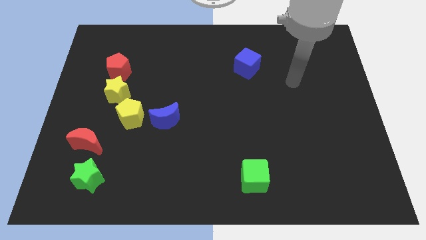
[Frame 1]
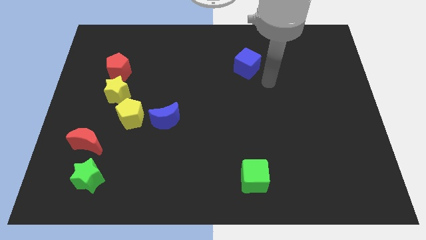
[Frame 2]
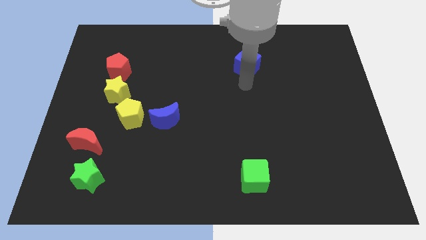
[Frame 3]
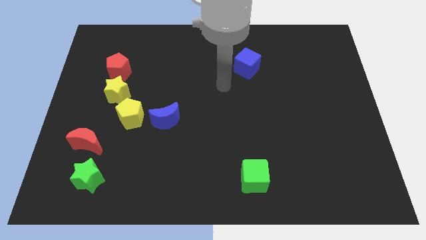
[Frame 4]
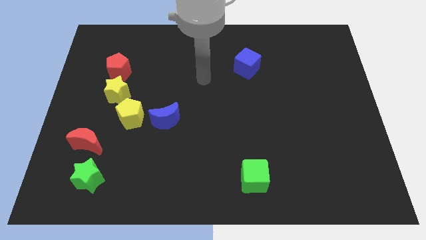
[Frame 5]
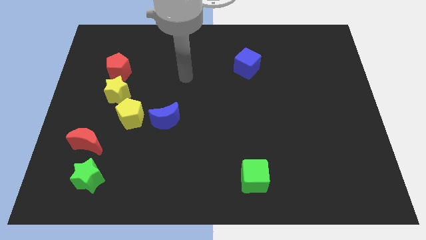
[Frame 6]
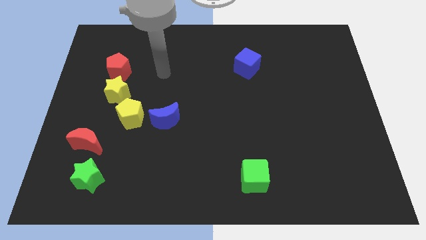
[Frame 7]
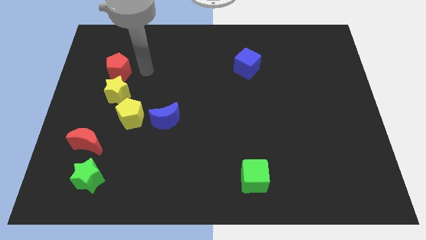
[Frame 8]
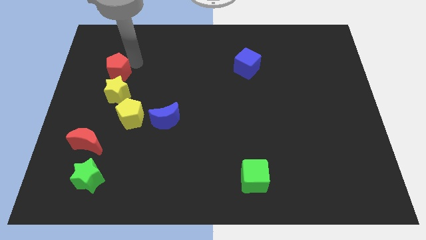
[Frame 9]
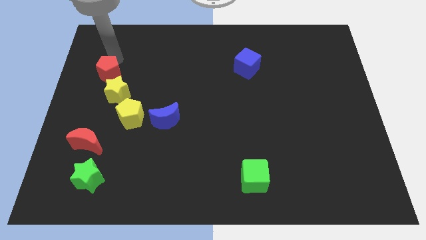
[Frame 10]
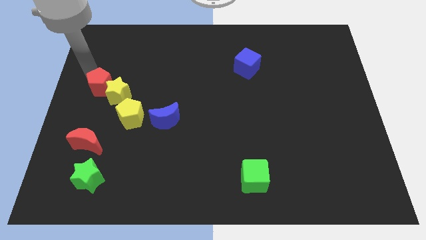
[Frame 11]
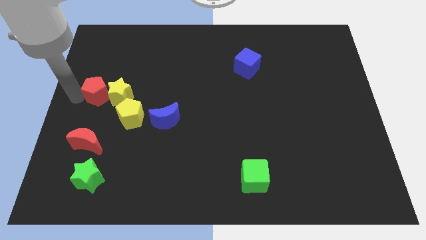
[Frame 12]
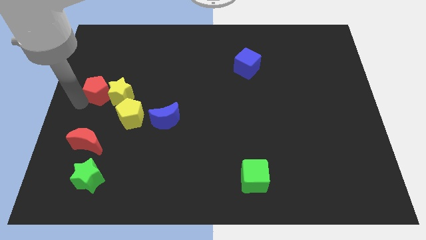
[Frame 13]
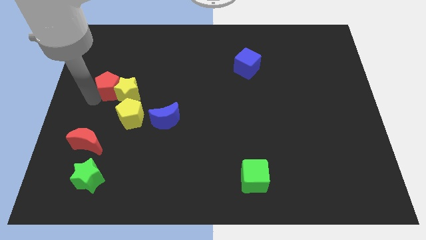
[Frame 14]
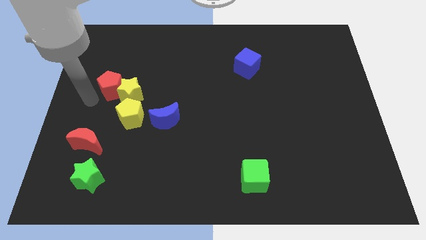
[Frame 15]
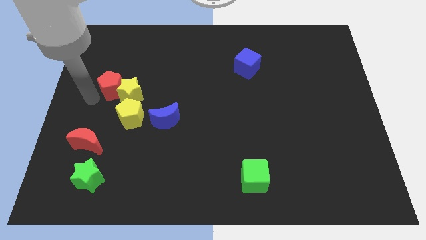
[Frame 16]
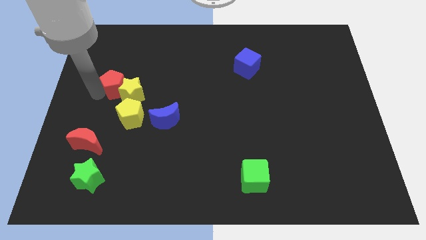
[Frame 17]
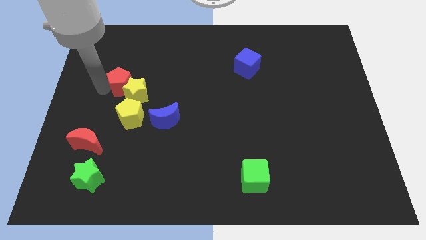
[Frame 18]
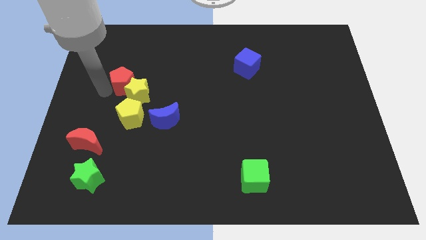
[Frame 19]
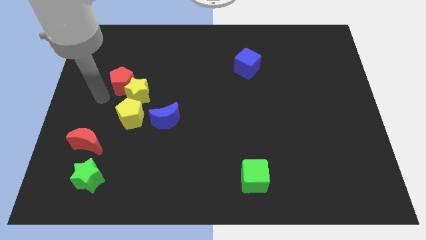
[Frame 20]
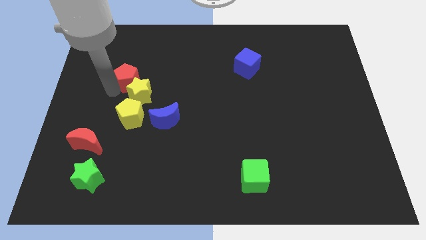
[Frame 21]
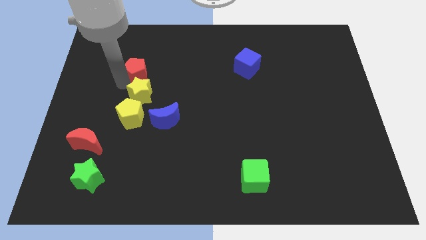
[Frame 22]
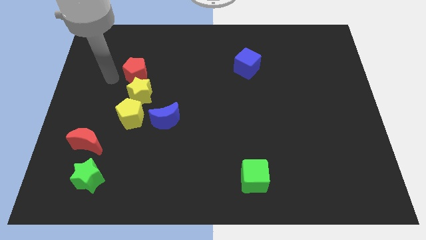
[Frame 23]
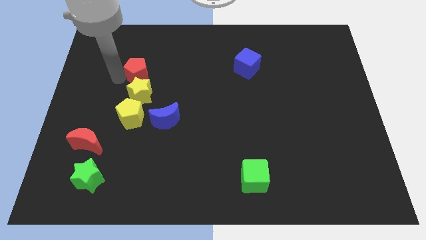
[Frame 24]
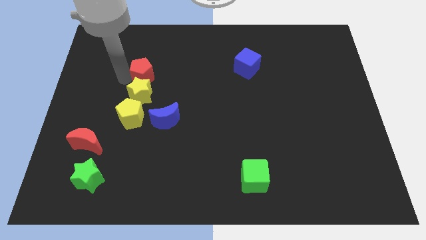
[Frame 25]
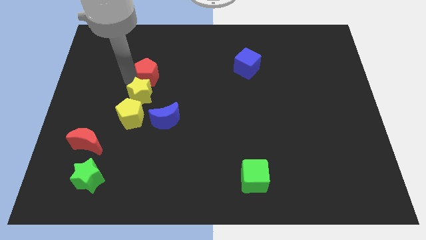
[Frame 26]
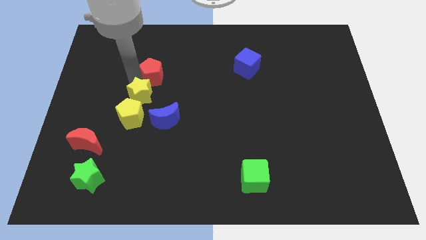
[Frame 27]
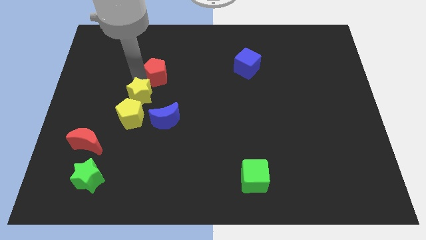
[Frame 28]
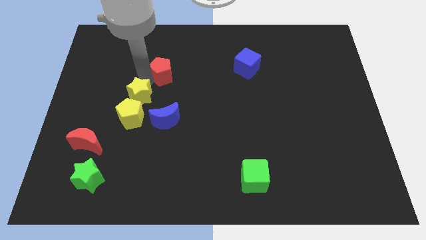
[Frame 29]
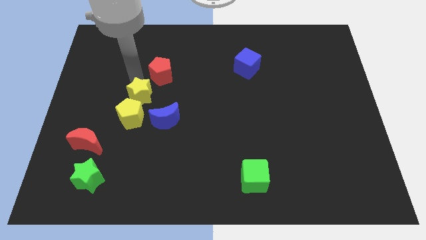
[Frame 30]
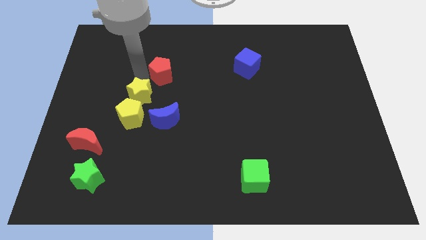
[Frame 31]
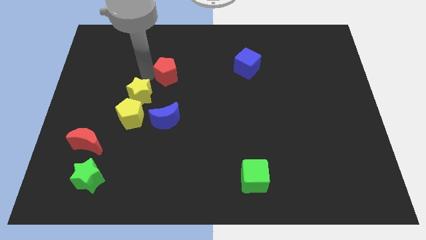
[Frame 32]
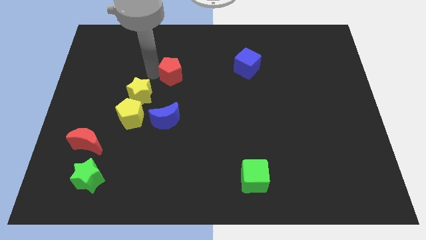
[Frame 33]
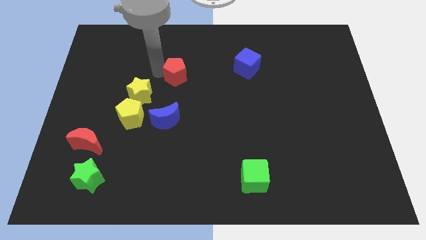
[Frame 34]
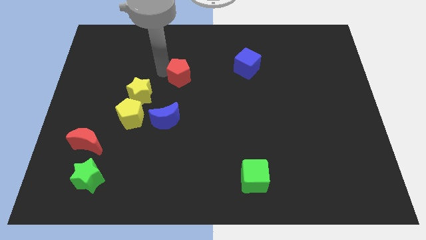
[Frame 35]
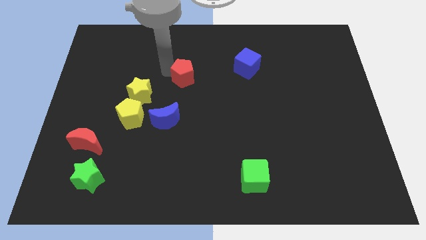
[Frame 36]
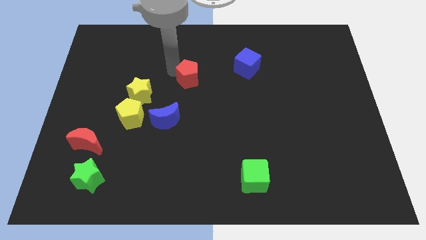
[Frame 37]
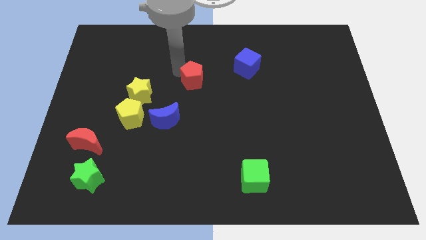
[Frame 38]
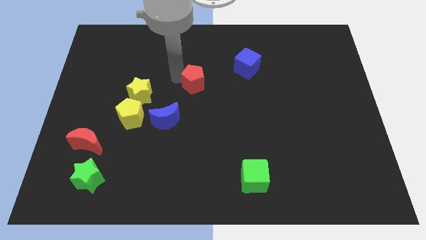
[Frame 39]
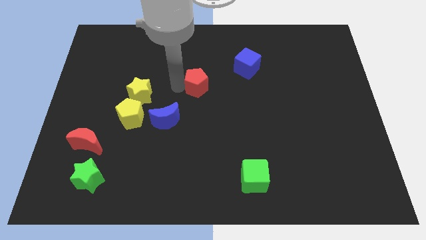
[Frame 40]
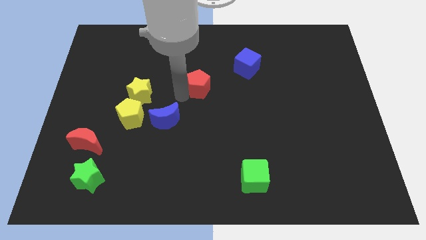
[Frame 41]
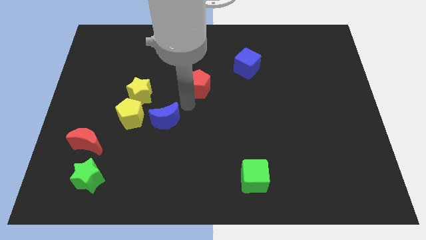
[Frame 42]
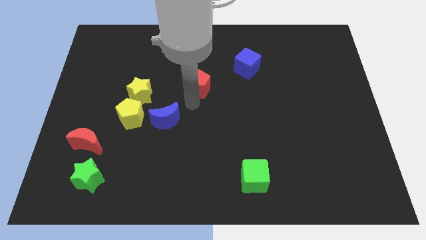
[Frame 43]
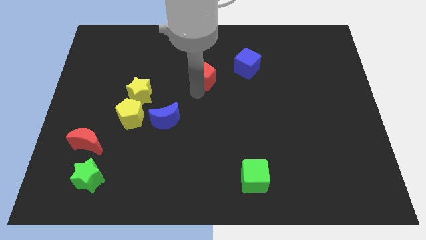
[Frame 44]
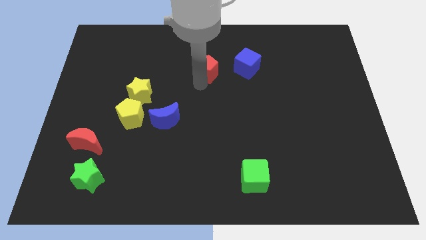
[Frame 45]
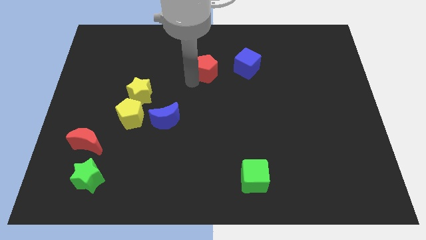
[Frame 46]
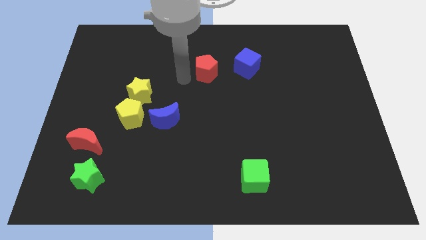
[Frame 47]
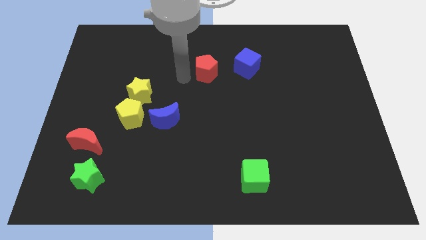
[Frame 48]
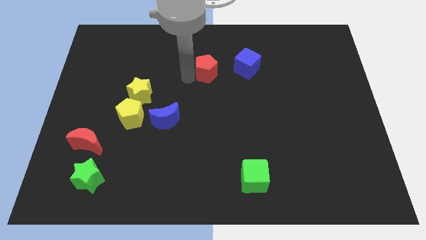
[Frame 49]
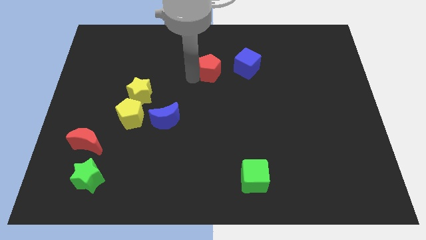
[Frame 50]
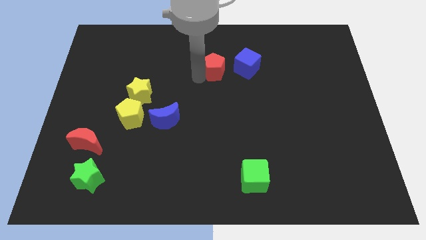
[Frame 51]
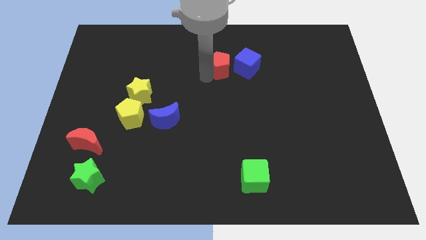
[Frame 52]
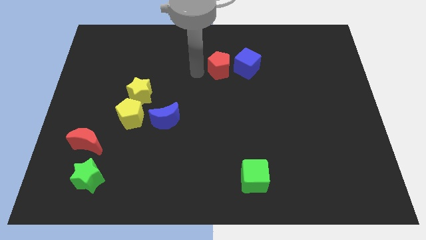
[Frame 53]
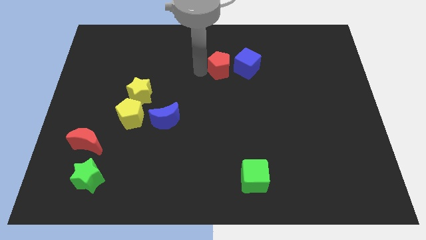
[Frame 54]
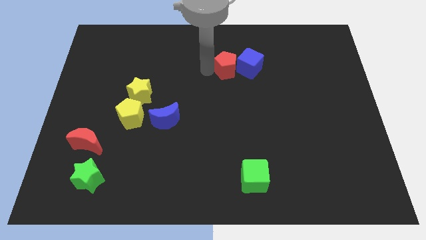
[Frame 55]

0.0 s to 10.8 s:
put the red pentagon towards the blue cube

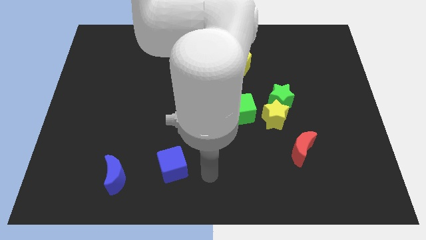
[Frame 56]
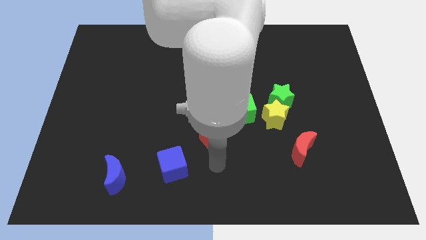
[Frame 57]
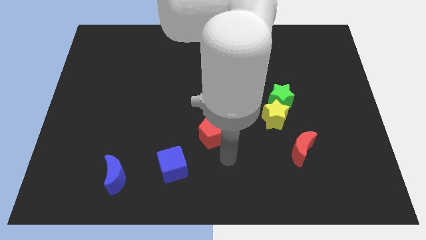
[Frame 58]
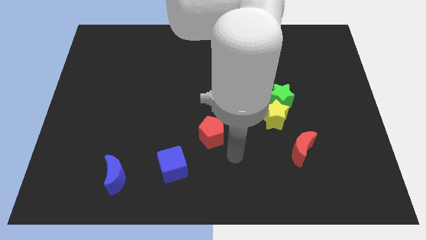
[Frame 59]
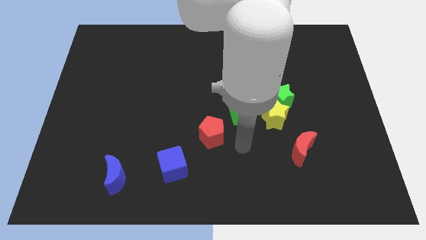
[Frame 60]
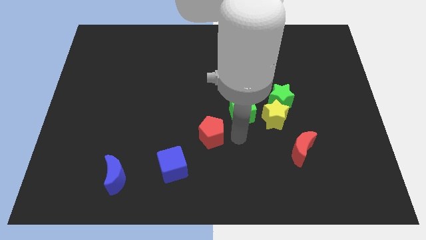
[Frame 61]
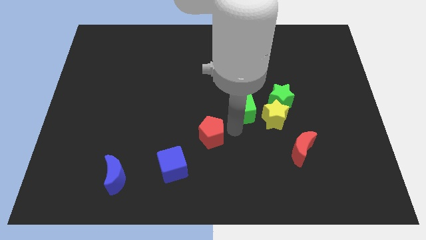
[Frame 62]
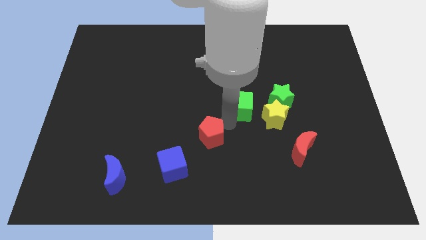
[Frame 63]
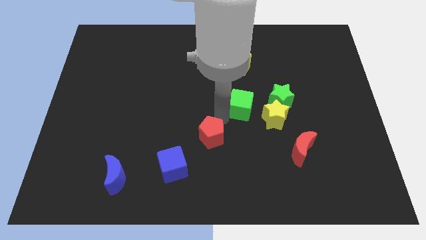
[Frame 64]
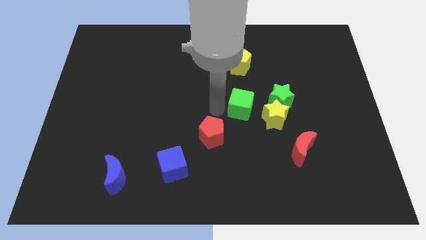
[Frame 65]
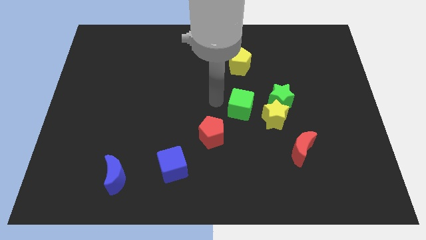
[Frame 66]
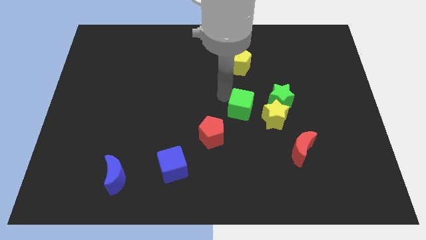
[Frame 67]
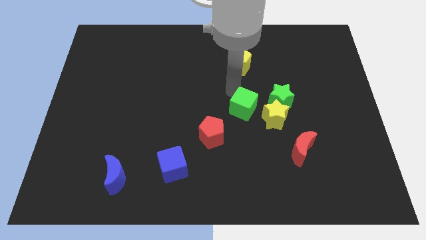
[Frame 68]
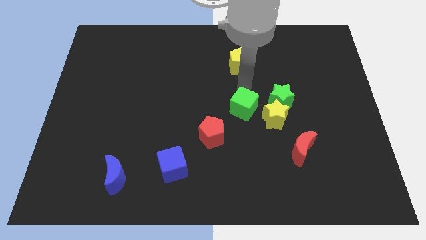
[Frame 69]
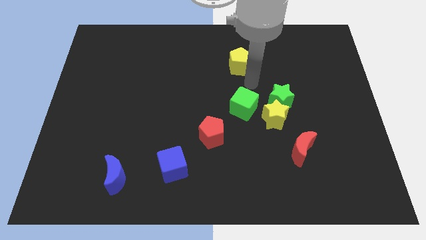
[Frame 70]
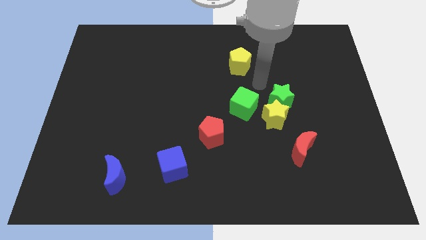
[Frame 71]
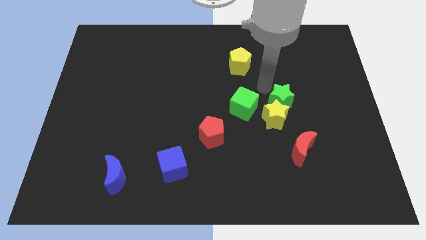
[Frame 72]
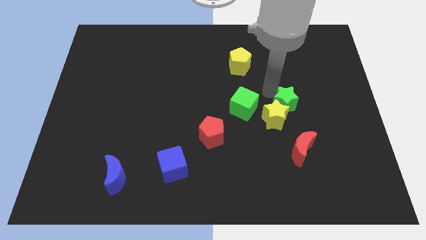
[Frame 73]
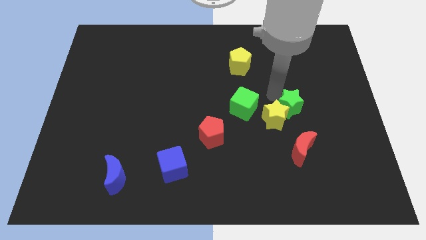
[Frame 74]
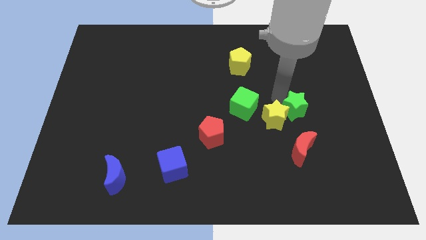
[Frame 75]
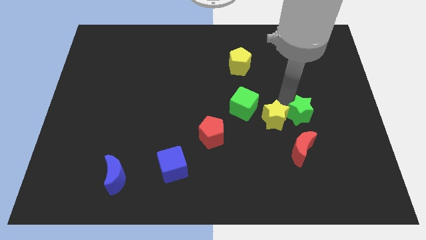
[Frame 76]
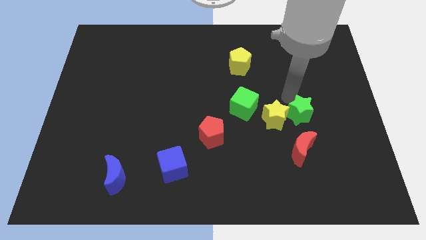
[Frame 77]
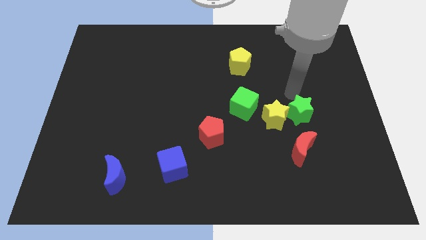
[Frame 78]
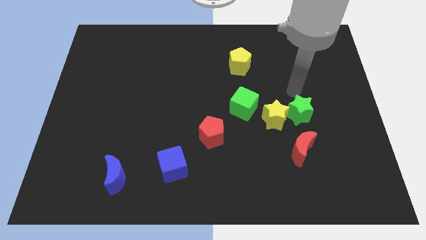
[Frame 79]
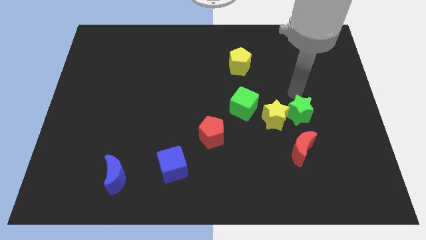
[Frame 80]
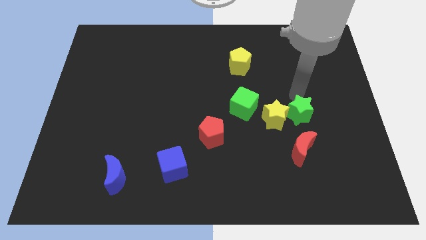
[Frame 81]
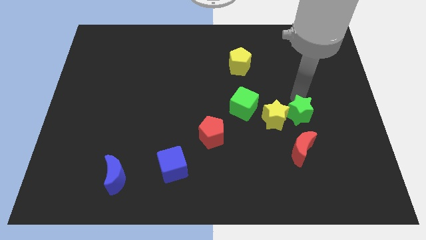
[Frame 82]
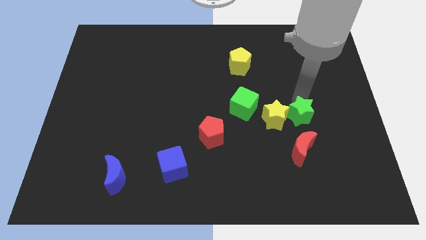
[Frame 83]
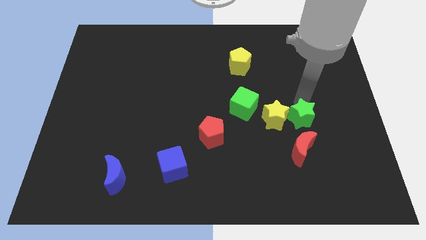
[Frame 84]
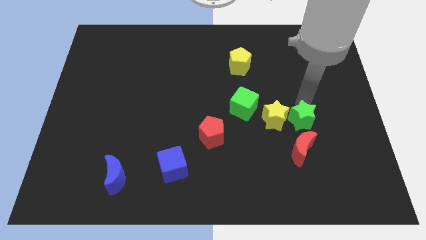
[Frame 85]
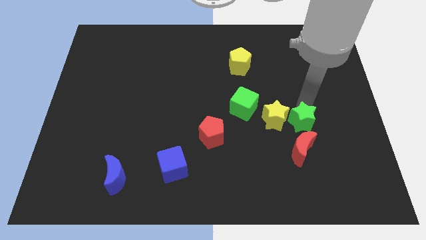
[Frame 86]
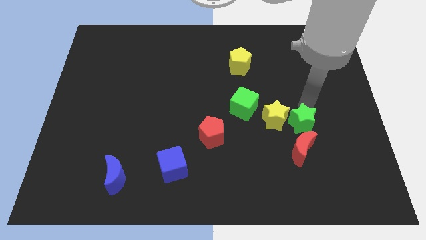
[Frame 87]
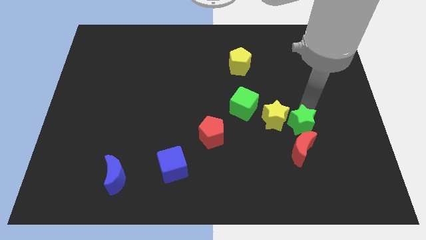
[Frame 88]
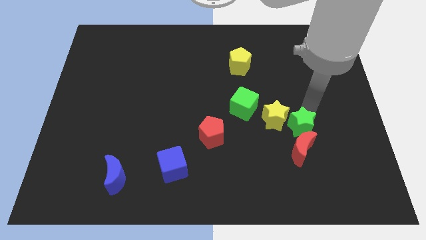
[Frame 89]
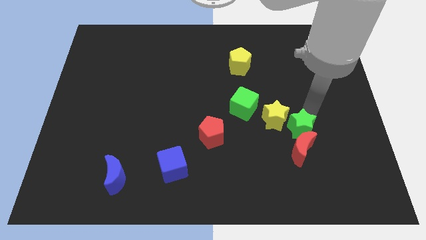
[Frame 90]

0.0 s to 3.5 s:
slide the green star close to the red moon
